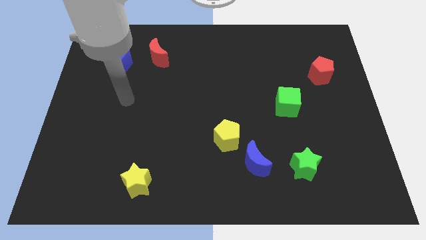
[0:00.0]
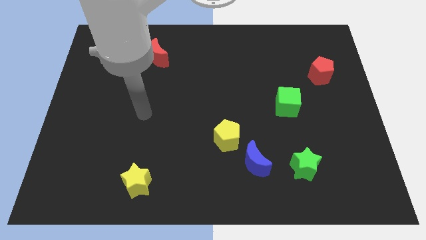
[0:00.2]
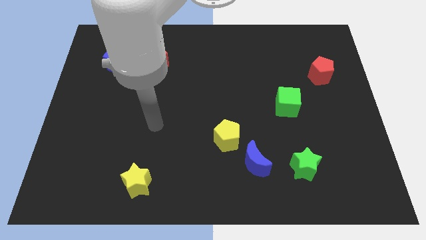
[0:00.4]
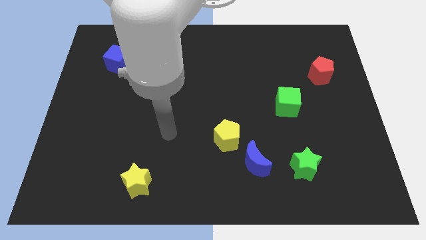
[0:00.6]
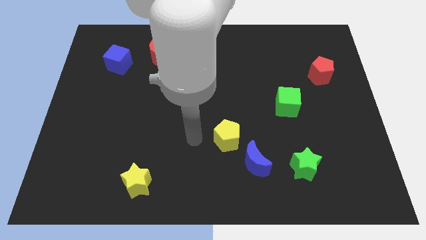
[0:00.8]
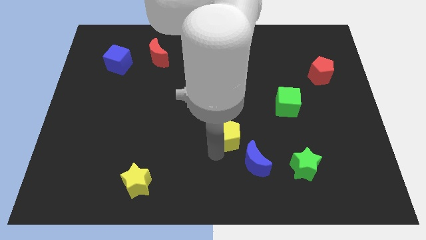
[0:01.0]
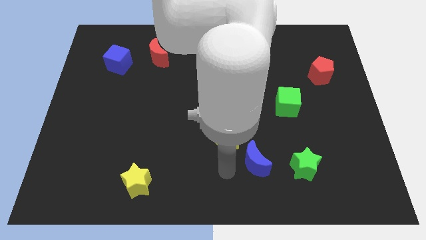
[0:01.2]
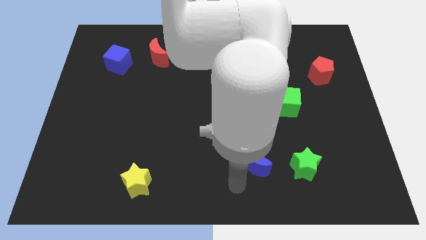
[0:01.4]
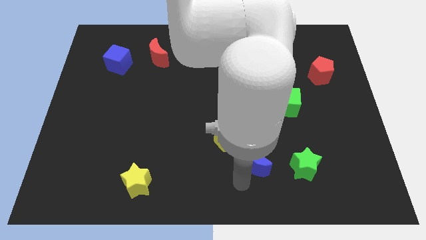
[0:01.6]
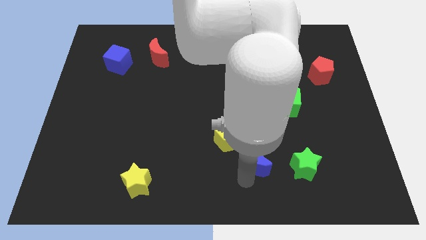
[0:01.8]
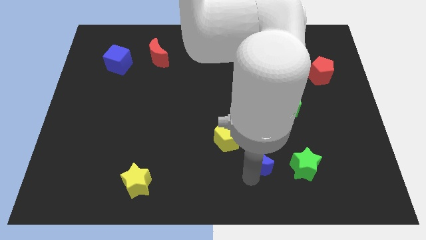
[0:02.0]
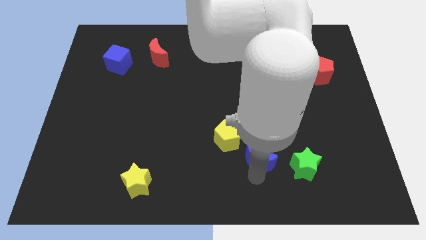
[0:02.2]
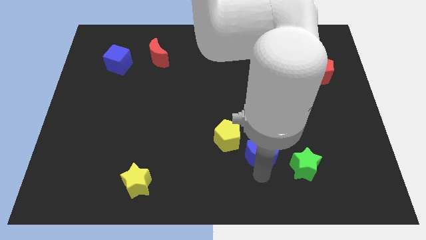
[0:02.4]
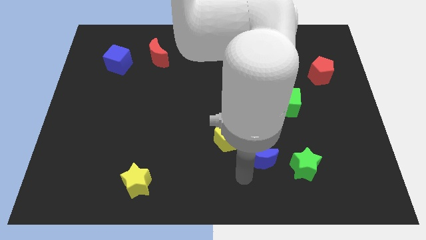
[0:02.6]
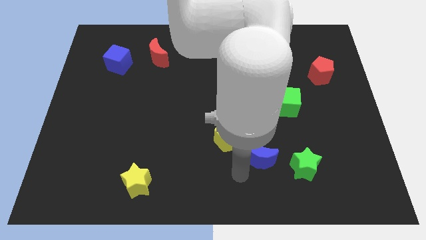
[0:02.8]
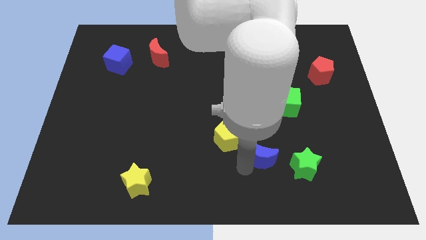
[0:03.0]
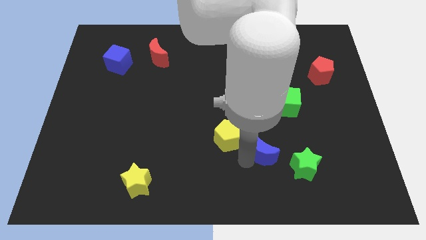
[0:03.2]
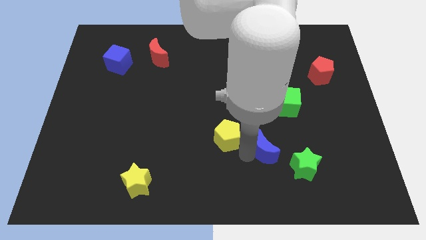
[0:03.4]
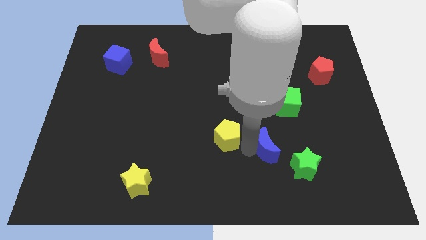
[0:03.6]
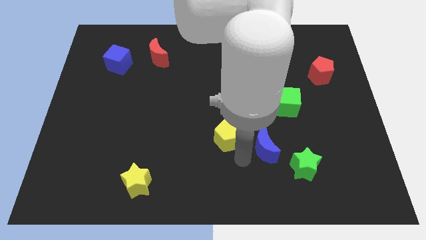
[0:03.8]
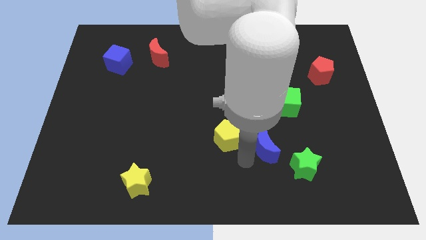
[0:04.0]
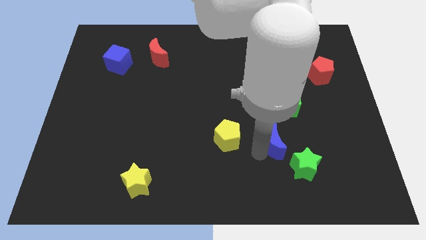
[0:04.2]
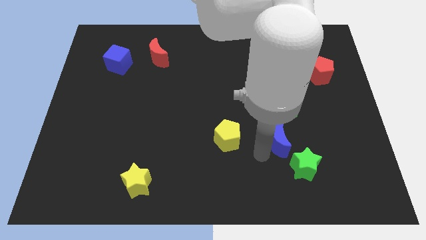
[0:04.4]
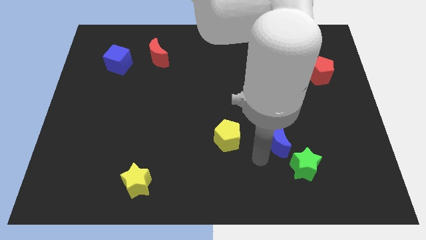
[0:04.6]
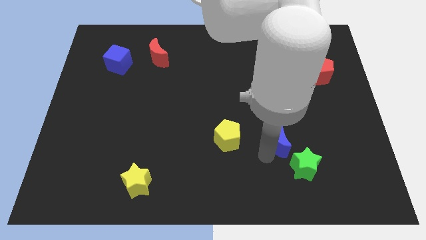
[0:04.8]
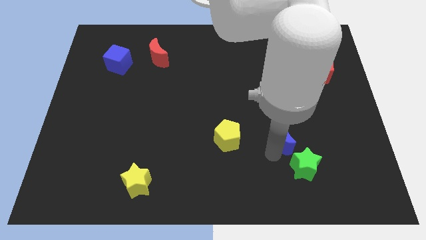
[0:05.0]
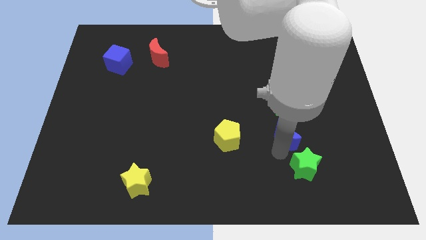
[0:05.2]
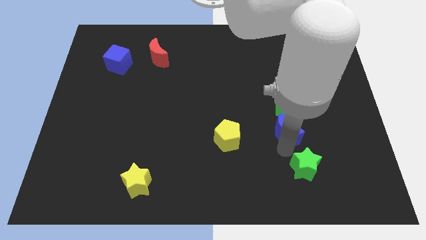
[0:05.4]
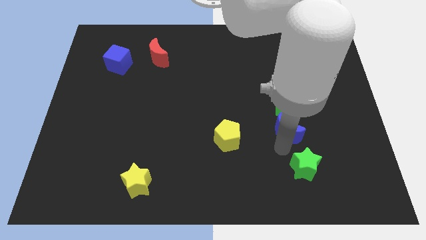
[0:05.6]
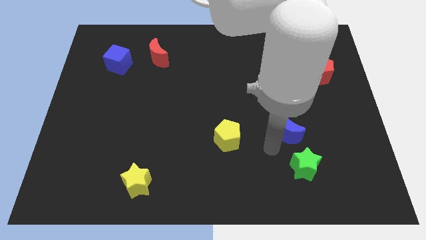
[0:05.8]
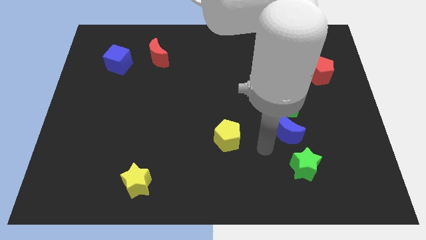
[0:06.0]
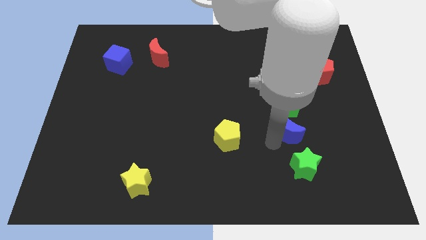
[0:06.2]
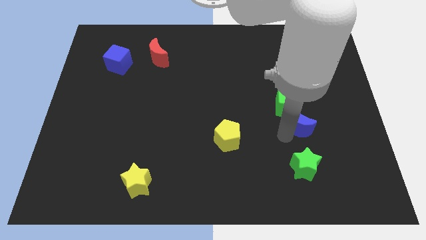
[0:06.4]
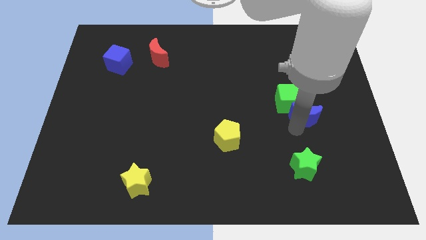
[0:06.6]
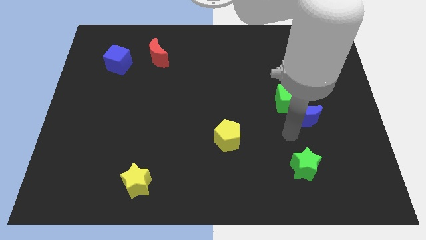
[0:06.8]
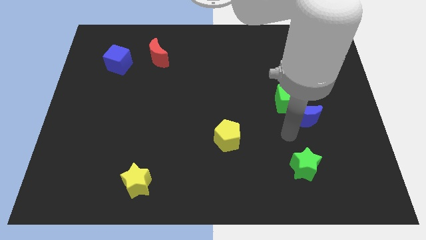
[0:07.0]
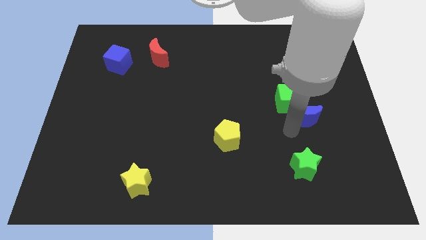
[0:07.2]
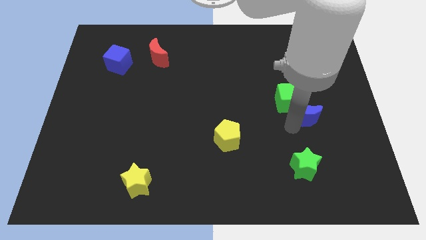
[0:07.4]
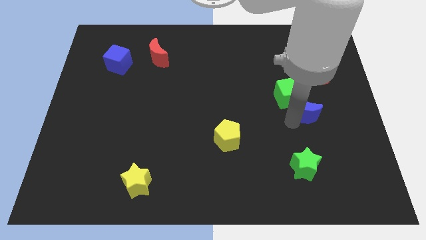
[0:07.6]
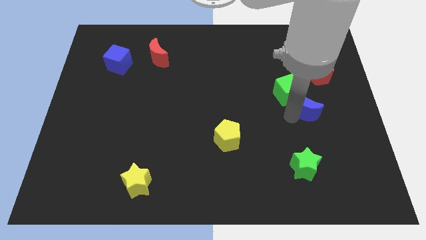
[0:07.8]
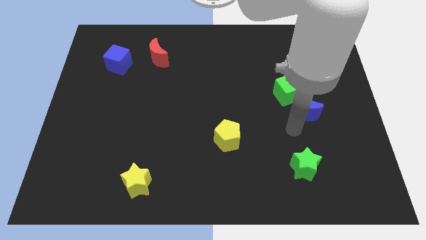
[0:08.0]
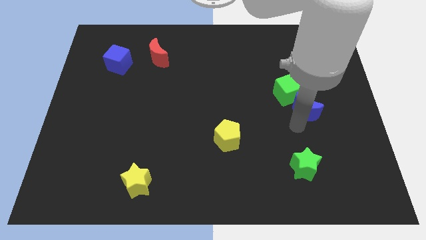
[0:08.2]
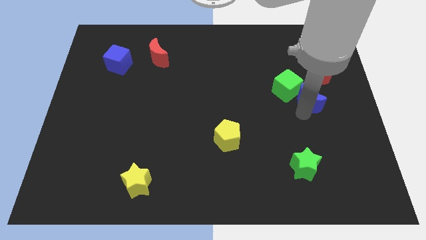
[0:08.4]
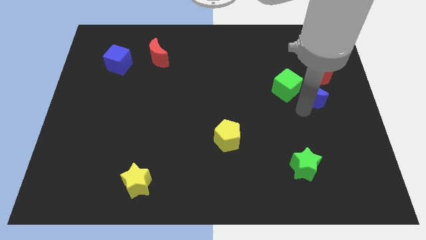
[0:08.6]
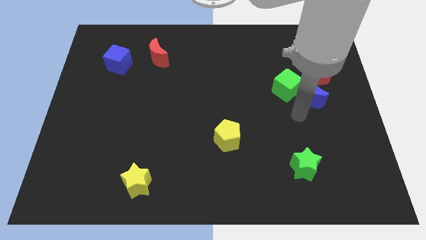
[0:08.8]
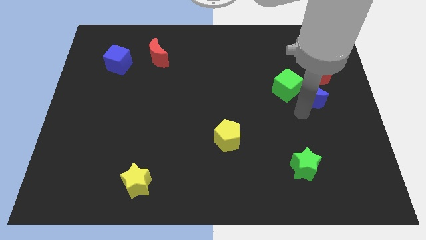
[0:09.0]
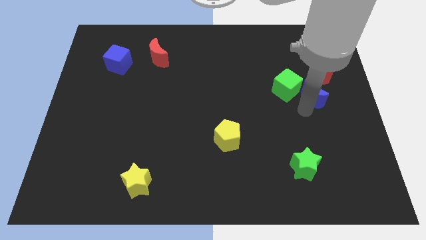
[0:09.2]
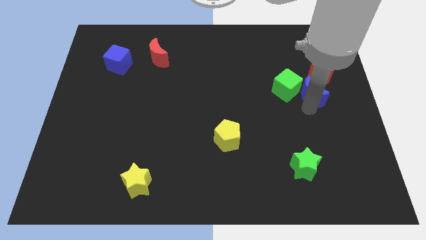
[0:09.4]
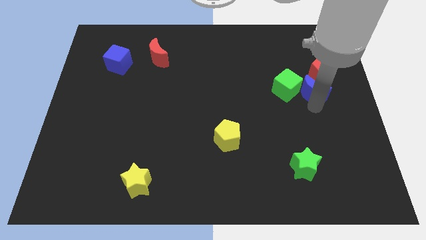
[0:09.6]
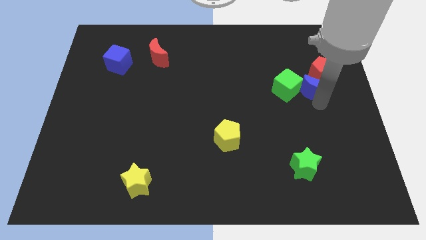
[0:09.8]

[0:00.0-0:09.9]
slide the blue moon next to the red pentagon

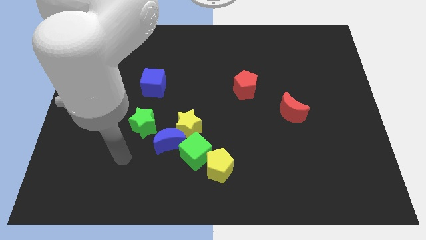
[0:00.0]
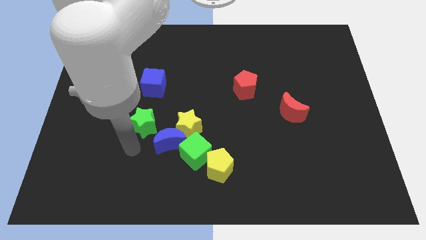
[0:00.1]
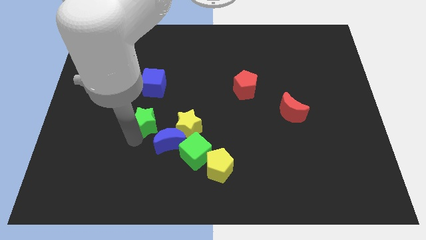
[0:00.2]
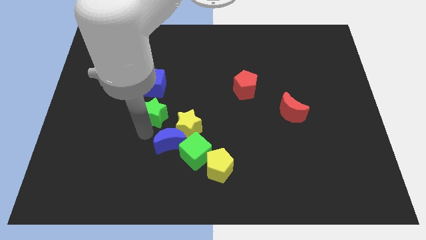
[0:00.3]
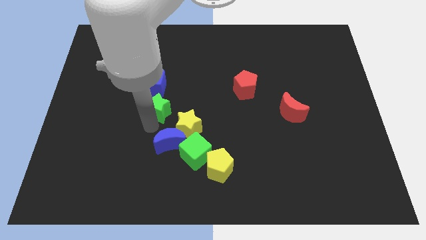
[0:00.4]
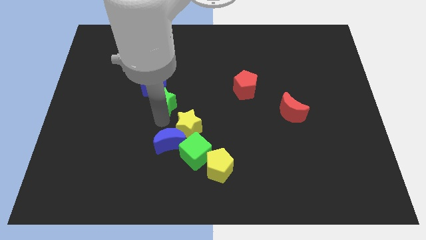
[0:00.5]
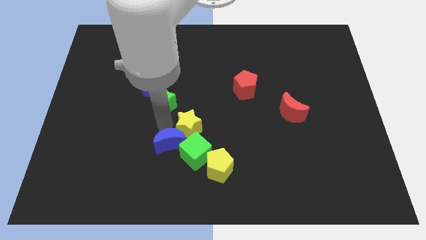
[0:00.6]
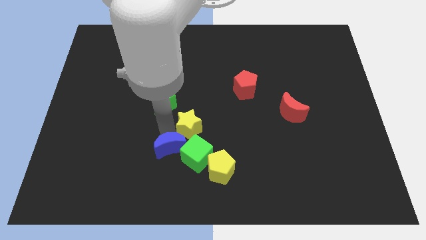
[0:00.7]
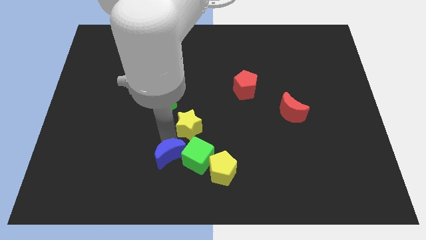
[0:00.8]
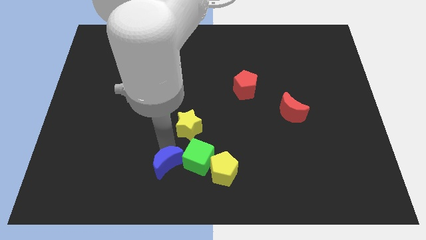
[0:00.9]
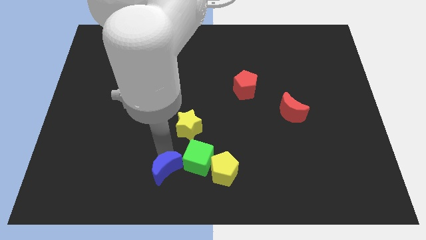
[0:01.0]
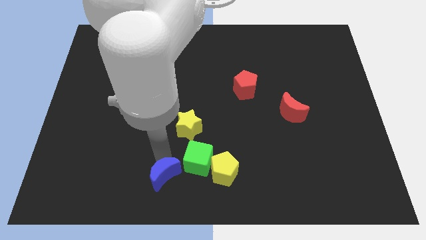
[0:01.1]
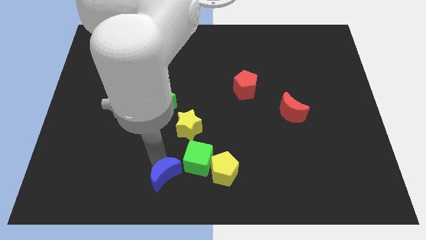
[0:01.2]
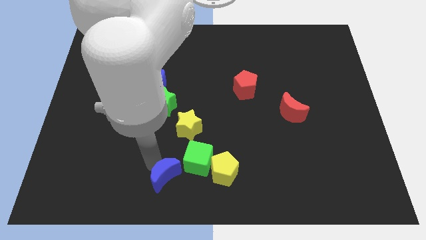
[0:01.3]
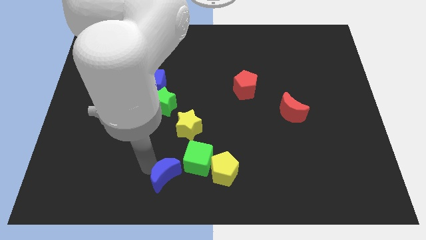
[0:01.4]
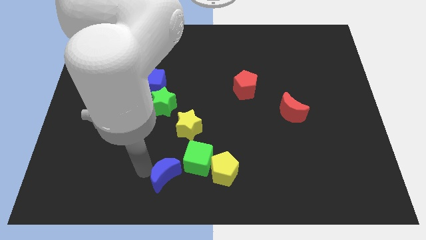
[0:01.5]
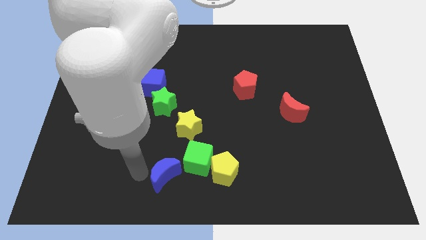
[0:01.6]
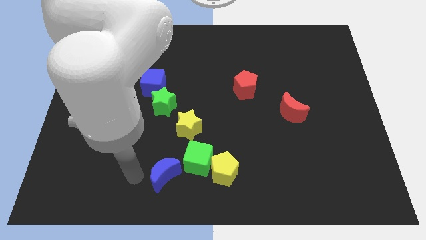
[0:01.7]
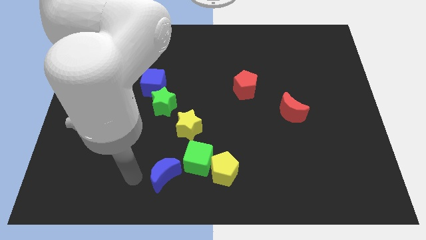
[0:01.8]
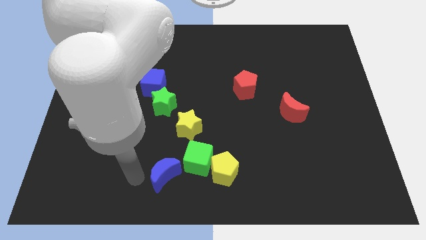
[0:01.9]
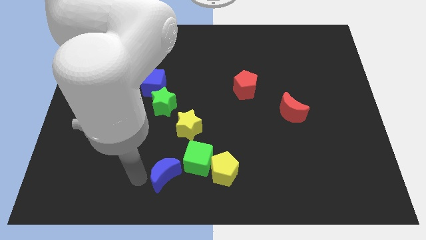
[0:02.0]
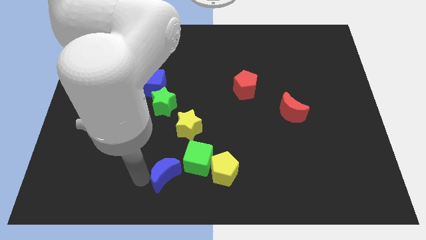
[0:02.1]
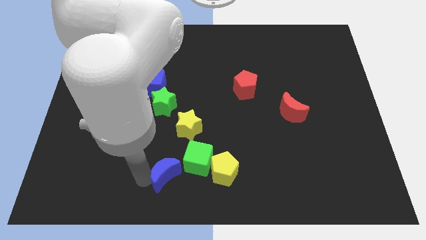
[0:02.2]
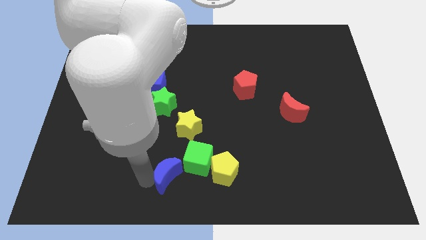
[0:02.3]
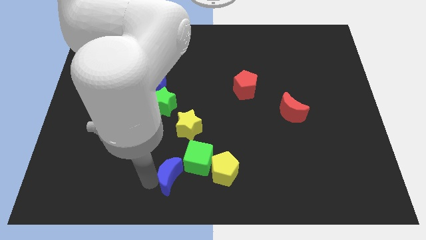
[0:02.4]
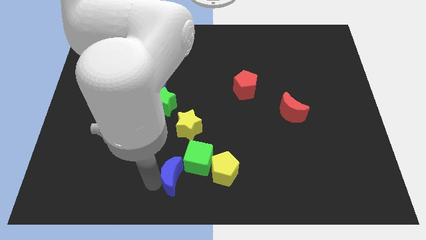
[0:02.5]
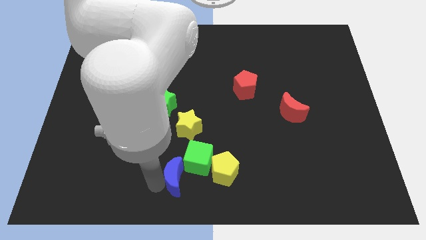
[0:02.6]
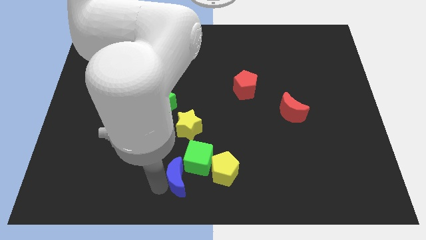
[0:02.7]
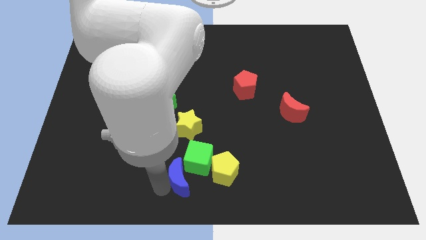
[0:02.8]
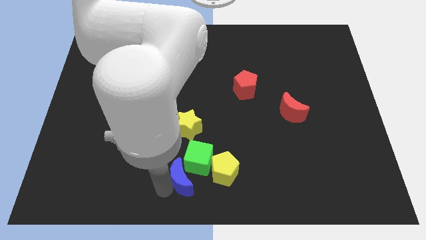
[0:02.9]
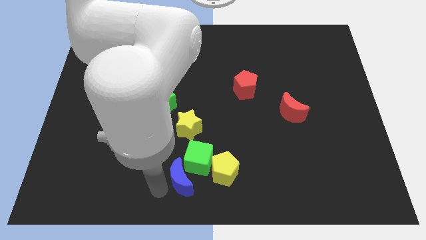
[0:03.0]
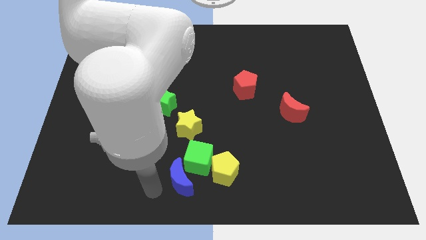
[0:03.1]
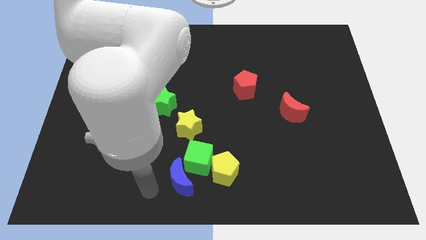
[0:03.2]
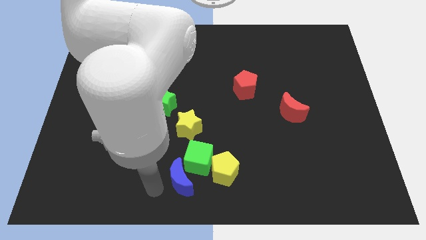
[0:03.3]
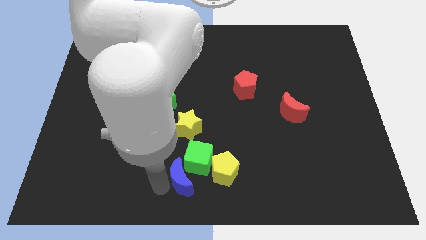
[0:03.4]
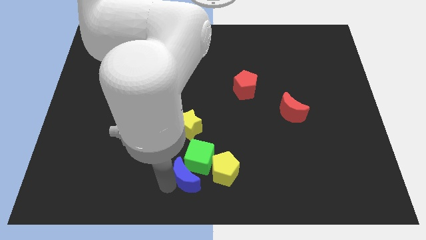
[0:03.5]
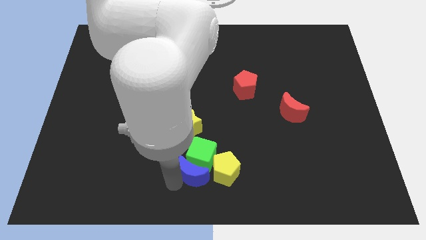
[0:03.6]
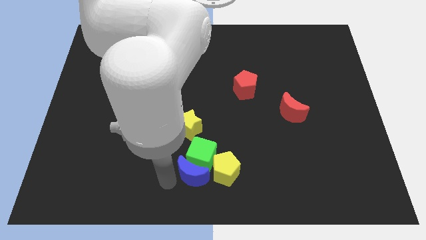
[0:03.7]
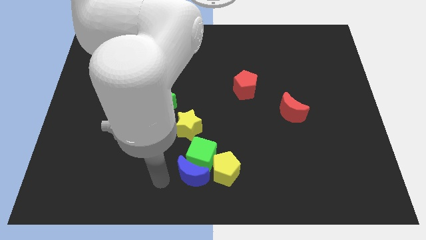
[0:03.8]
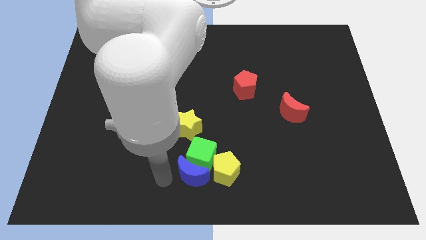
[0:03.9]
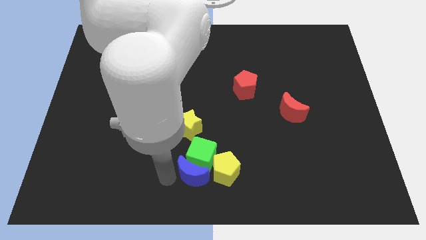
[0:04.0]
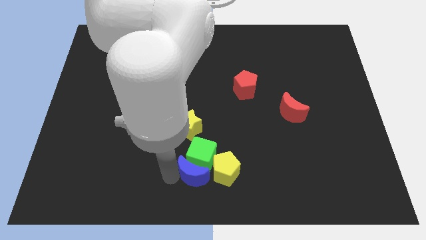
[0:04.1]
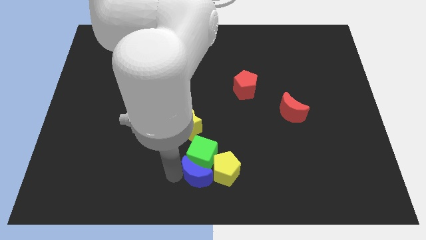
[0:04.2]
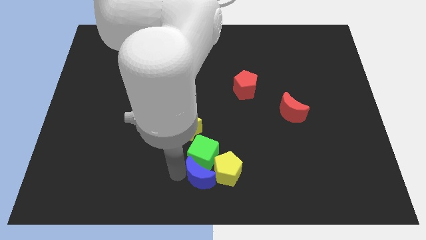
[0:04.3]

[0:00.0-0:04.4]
move the blue moon towards the yellow pentagon
